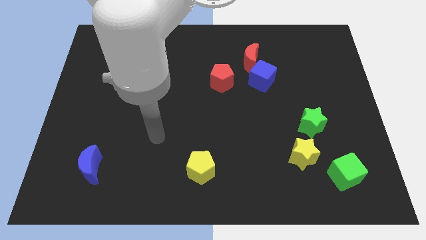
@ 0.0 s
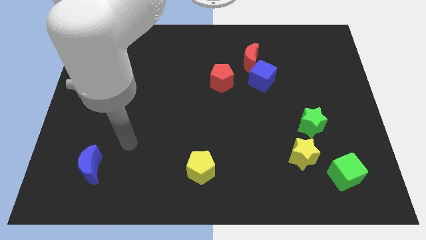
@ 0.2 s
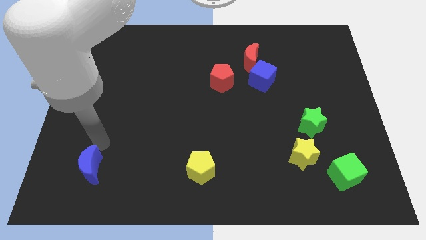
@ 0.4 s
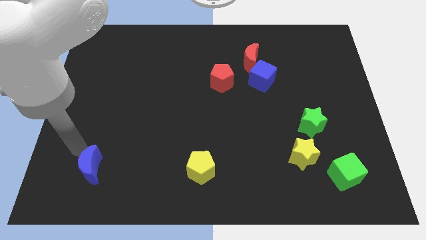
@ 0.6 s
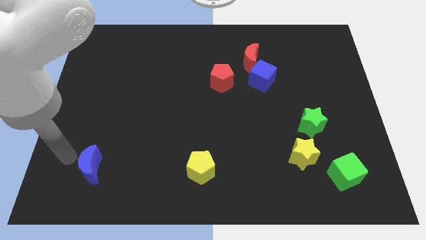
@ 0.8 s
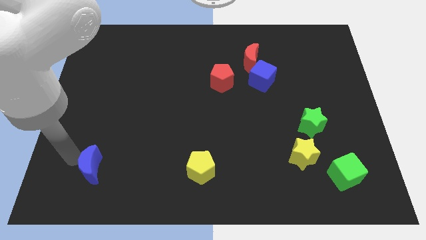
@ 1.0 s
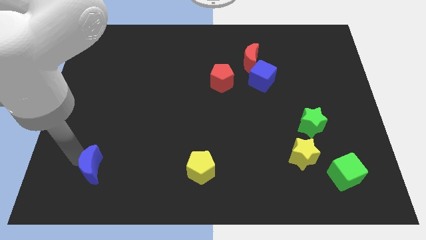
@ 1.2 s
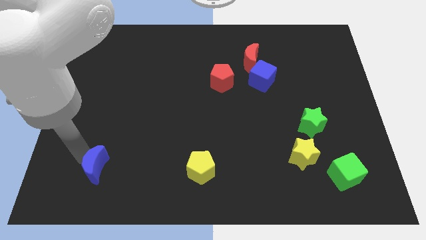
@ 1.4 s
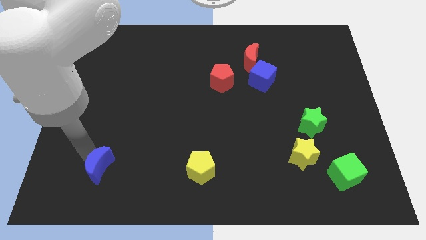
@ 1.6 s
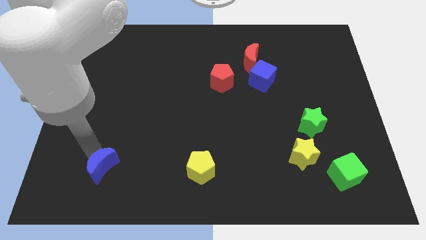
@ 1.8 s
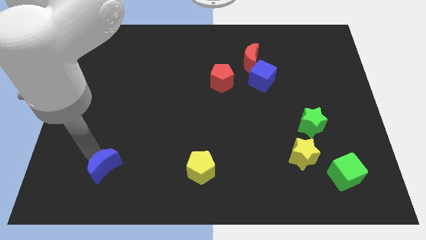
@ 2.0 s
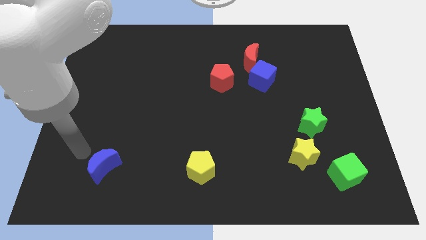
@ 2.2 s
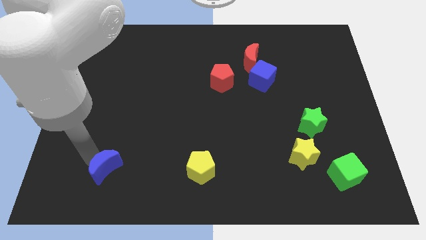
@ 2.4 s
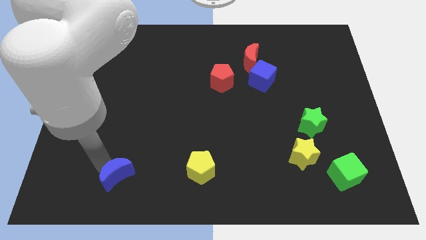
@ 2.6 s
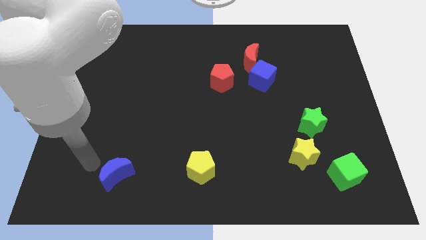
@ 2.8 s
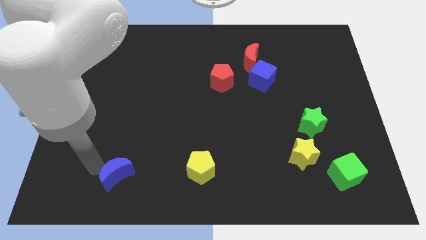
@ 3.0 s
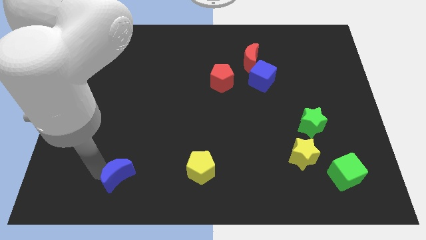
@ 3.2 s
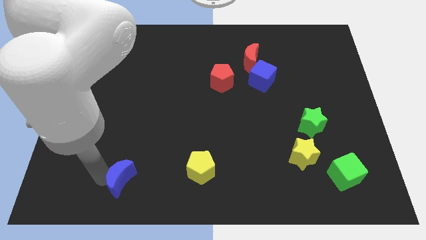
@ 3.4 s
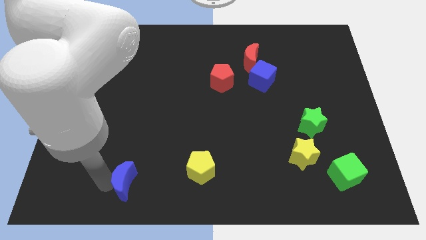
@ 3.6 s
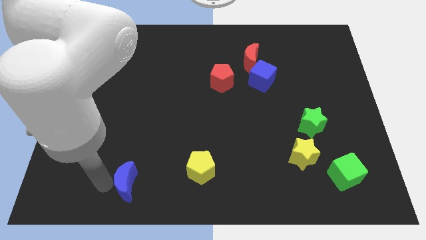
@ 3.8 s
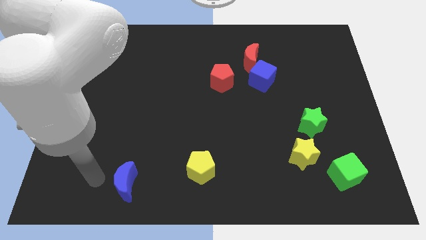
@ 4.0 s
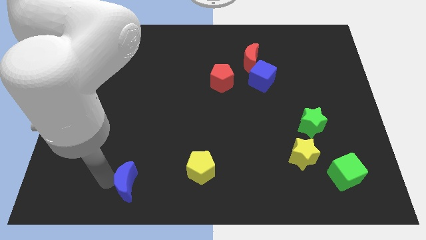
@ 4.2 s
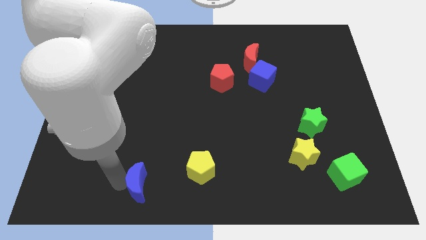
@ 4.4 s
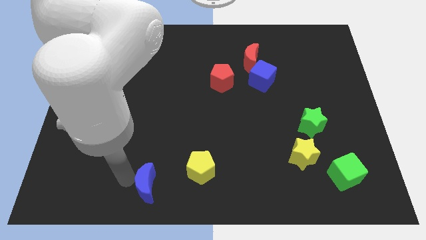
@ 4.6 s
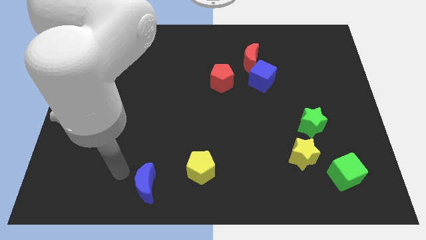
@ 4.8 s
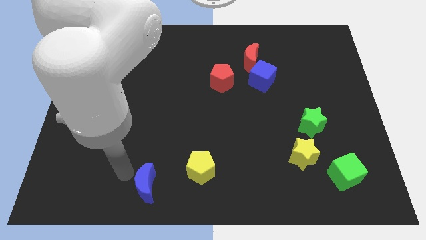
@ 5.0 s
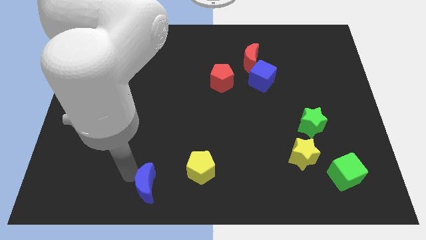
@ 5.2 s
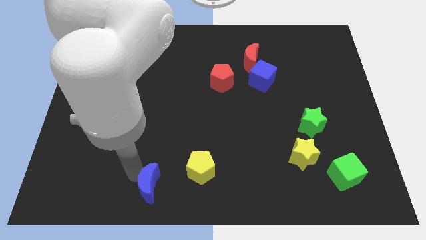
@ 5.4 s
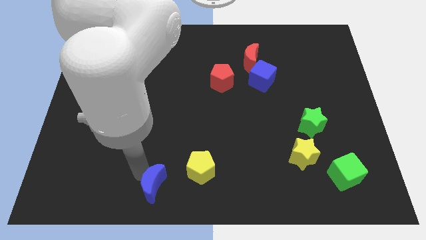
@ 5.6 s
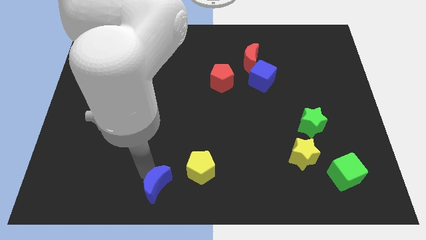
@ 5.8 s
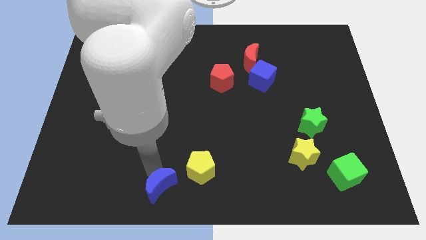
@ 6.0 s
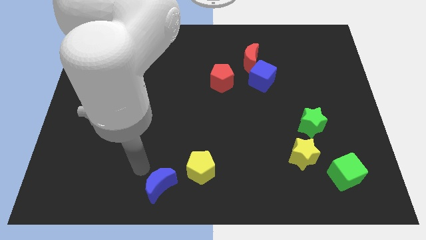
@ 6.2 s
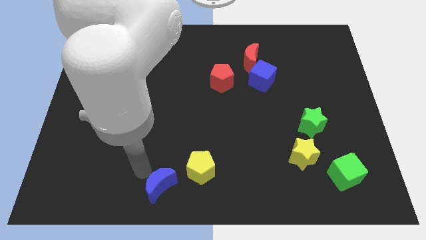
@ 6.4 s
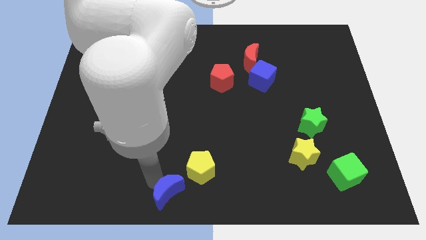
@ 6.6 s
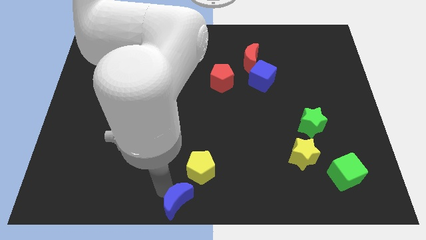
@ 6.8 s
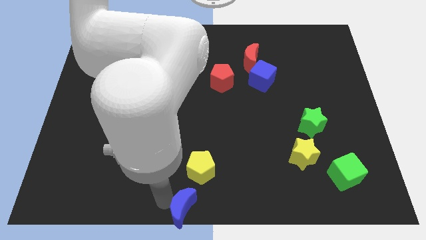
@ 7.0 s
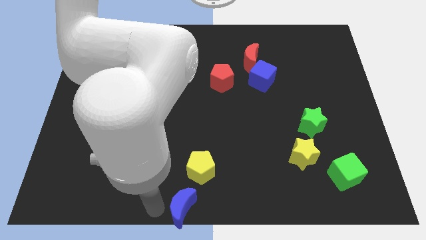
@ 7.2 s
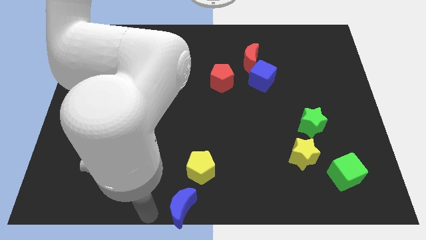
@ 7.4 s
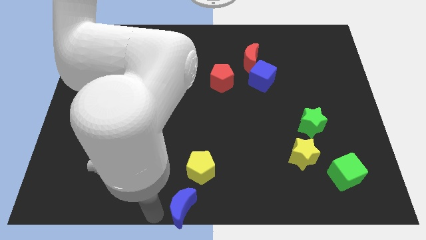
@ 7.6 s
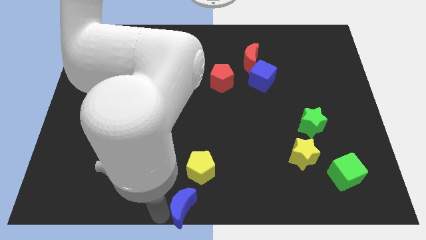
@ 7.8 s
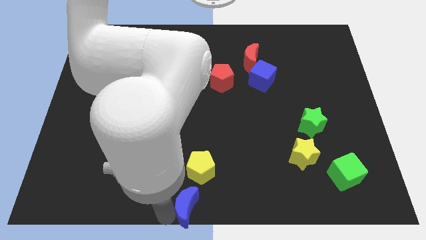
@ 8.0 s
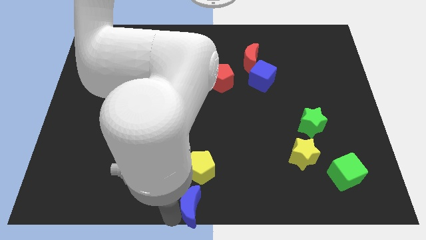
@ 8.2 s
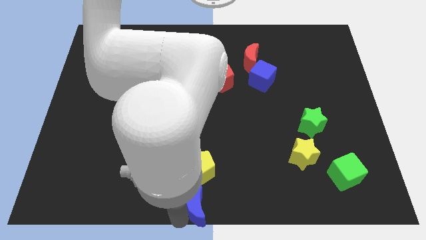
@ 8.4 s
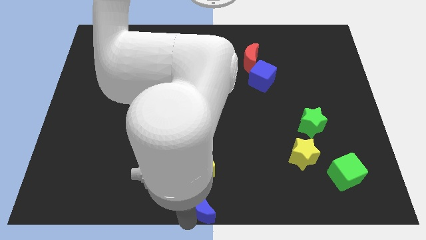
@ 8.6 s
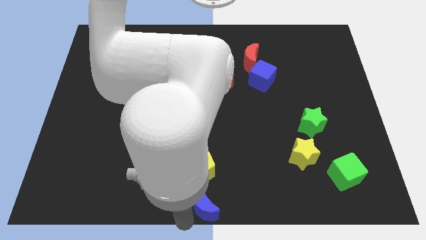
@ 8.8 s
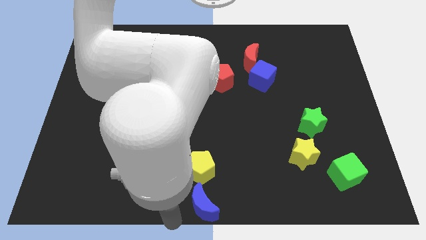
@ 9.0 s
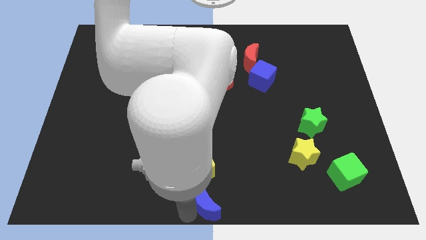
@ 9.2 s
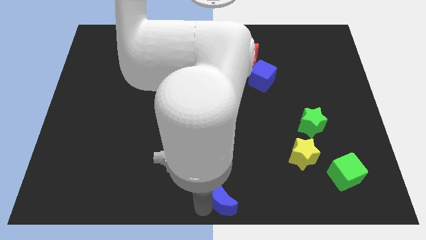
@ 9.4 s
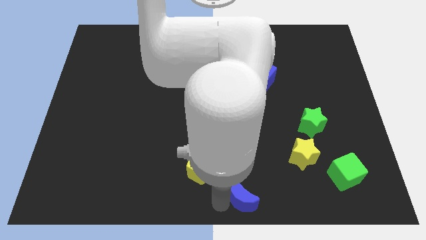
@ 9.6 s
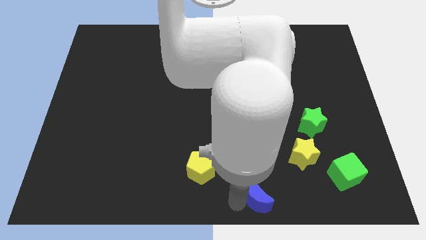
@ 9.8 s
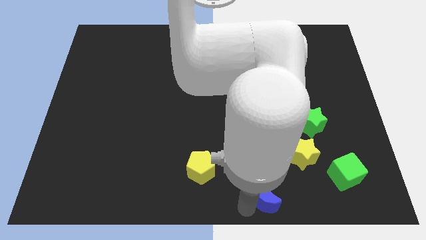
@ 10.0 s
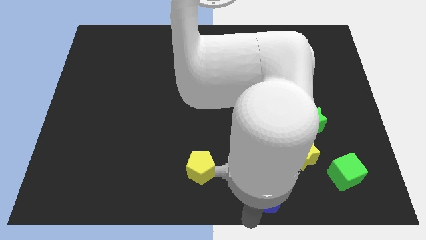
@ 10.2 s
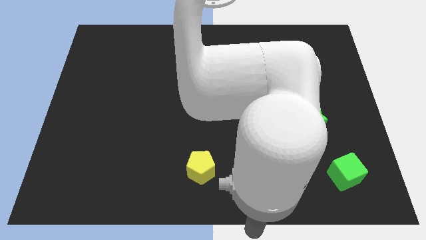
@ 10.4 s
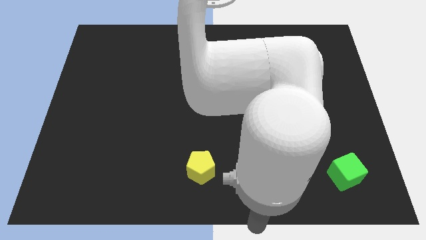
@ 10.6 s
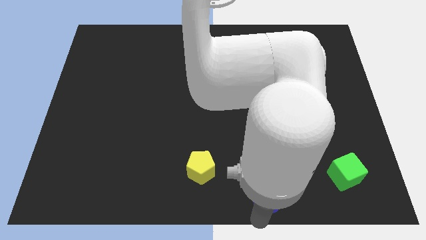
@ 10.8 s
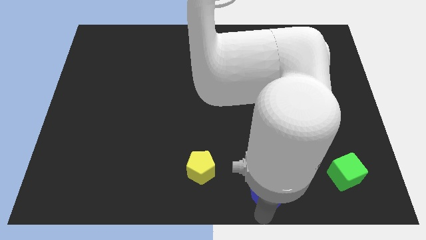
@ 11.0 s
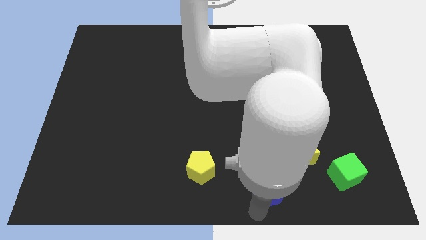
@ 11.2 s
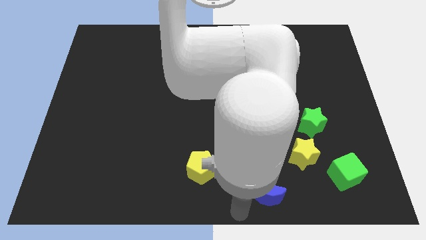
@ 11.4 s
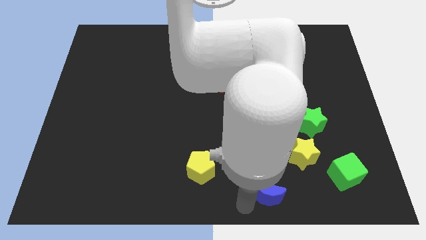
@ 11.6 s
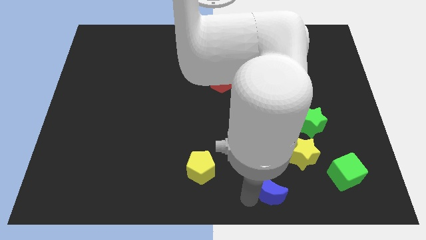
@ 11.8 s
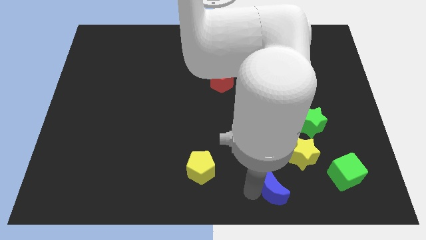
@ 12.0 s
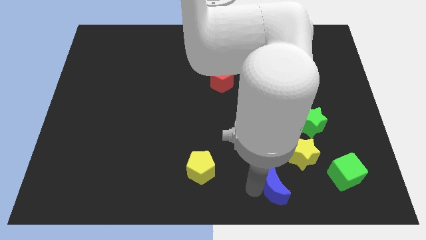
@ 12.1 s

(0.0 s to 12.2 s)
put the blue moon to the left of the green cube

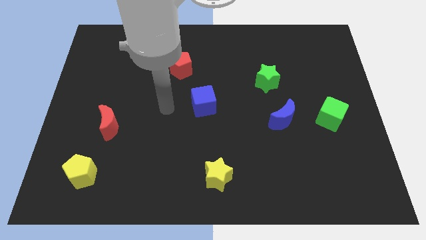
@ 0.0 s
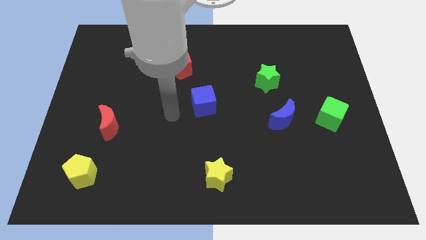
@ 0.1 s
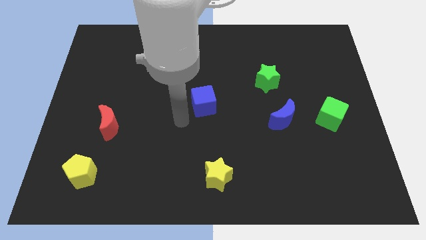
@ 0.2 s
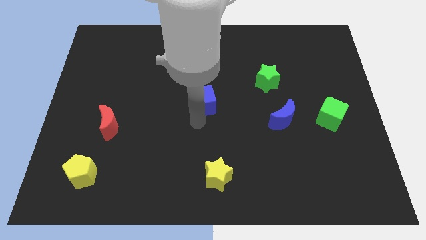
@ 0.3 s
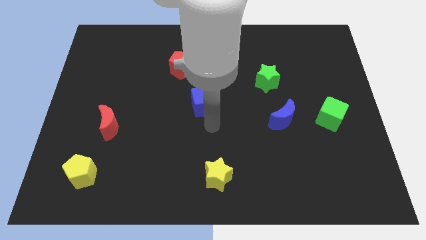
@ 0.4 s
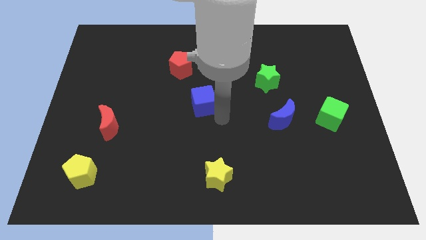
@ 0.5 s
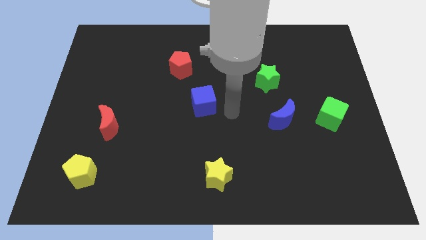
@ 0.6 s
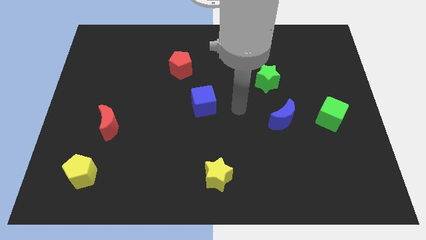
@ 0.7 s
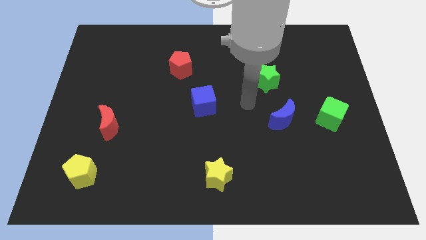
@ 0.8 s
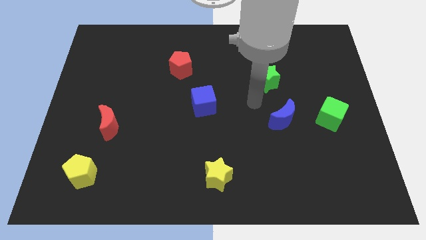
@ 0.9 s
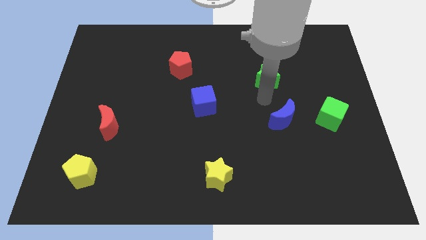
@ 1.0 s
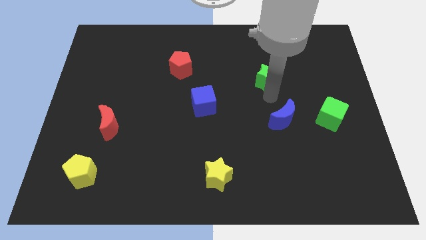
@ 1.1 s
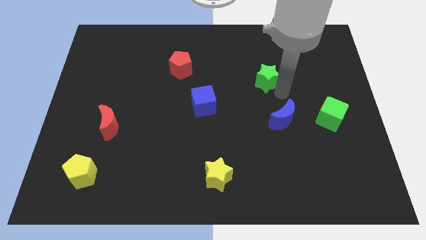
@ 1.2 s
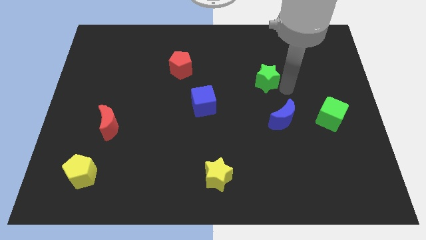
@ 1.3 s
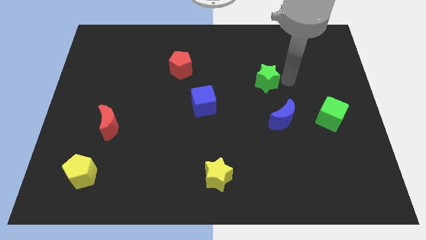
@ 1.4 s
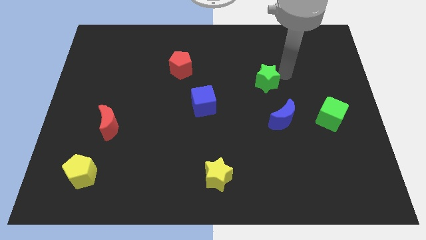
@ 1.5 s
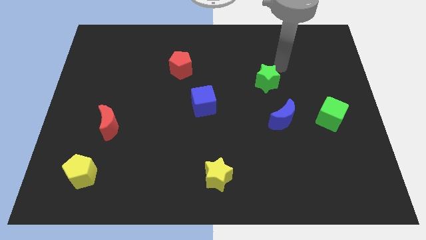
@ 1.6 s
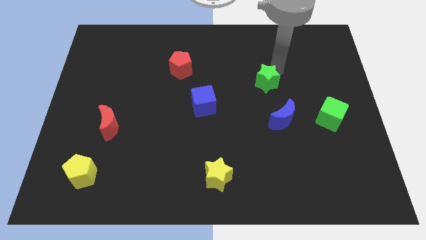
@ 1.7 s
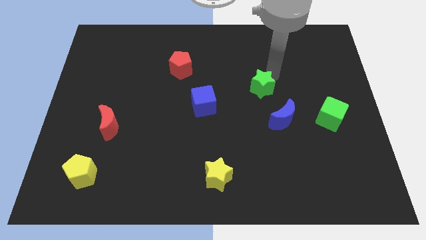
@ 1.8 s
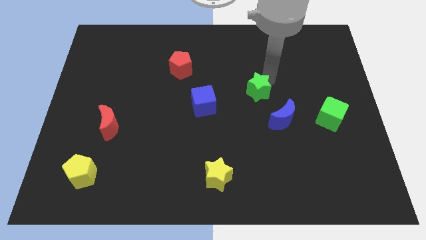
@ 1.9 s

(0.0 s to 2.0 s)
push the green star just right of the blue cube
